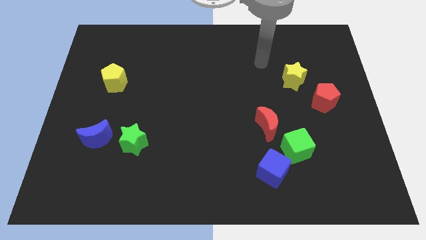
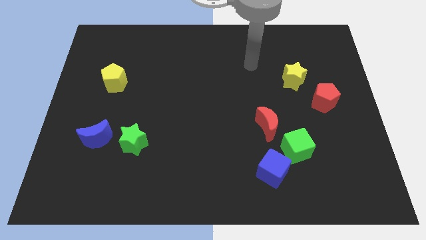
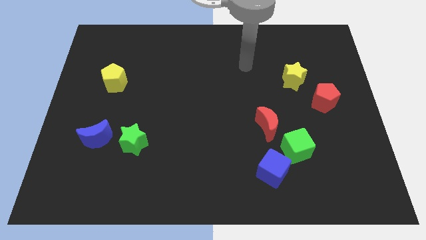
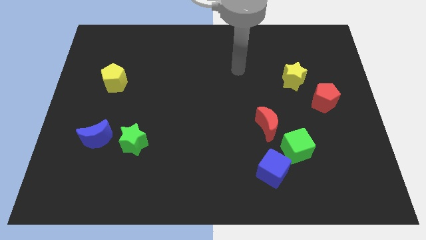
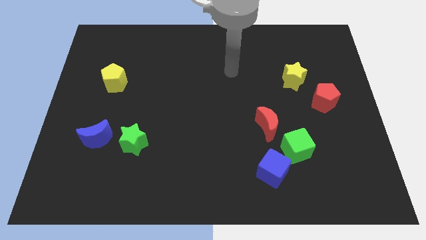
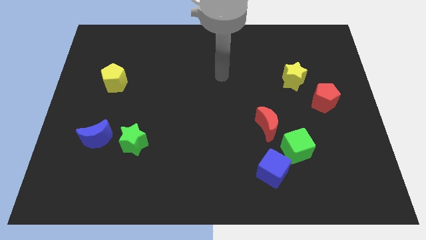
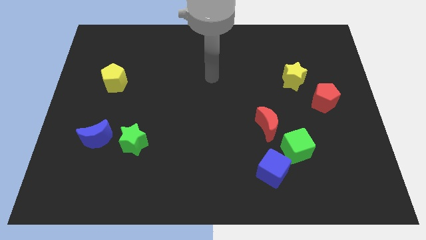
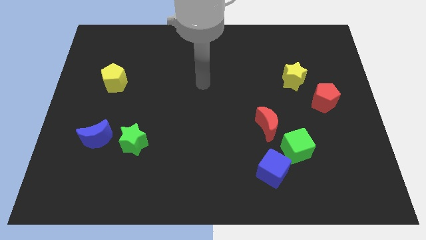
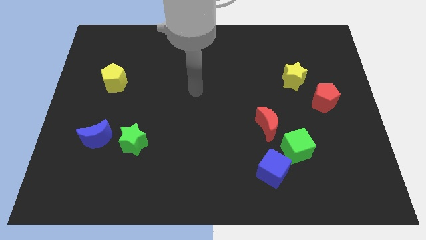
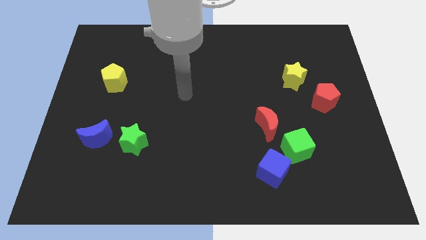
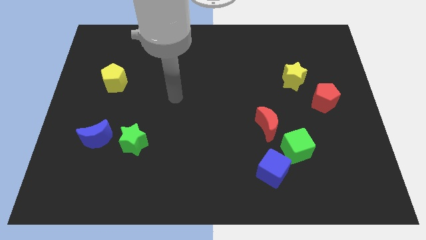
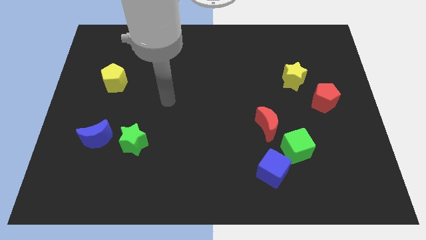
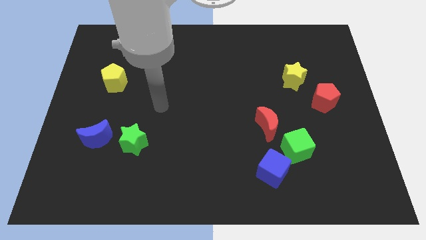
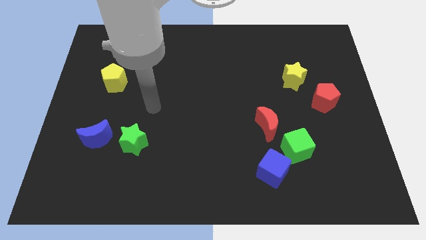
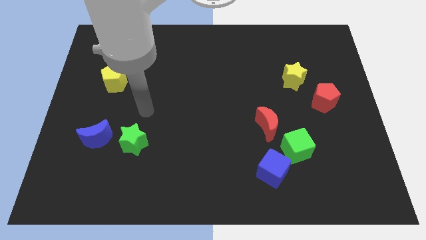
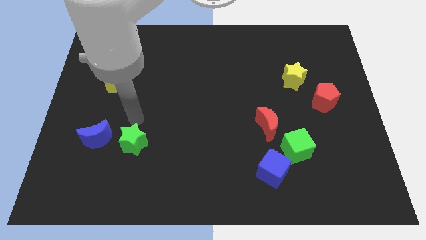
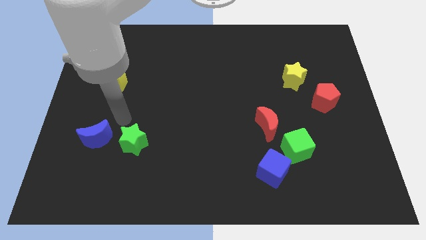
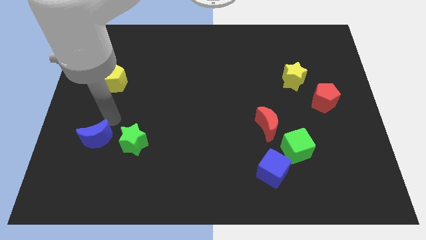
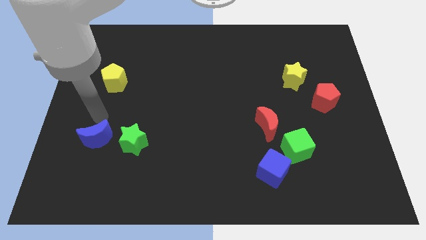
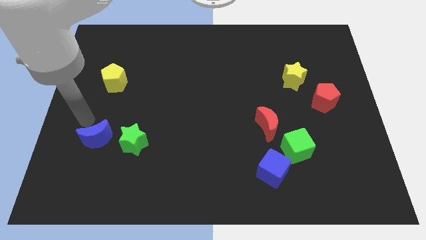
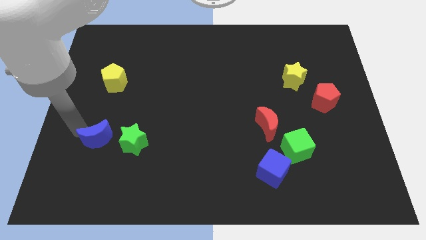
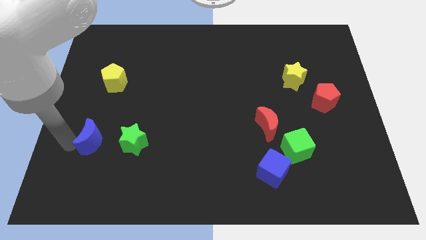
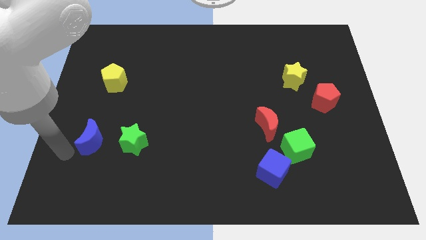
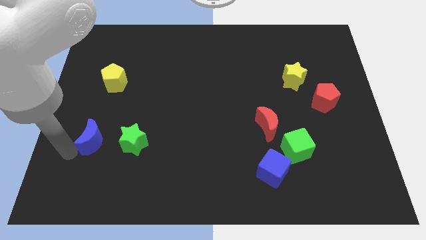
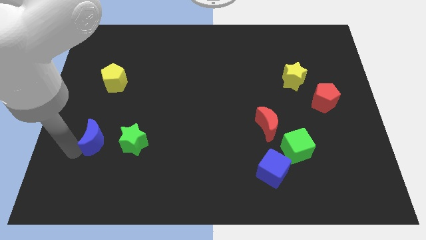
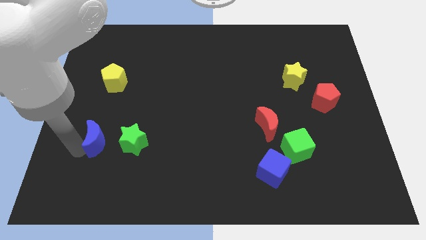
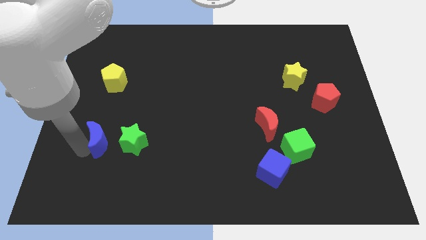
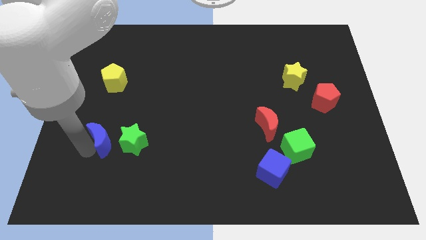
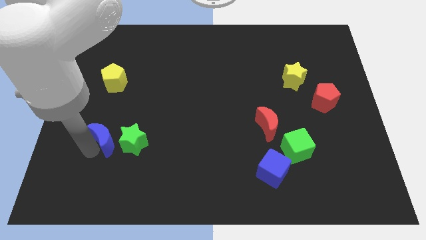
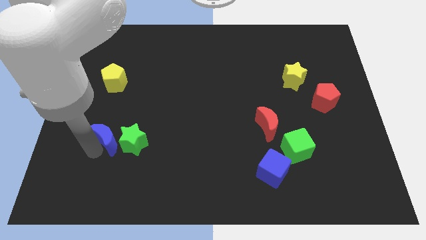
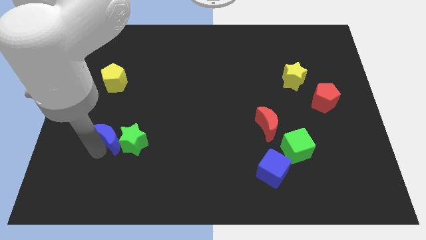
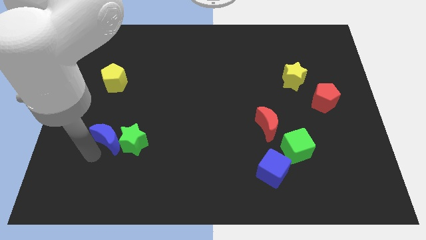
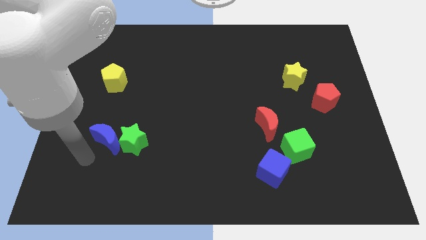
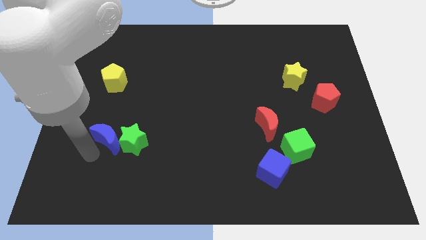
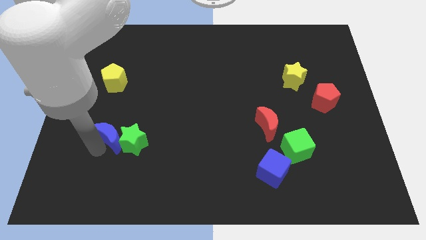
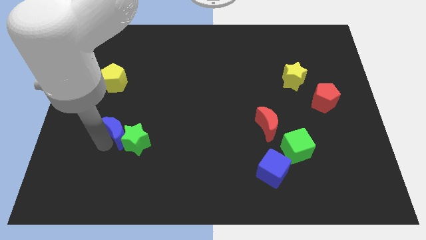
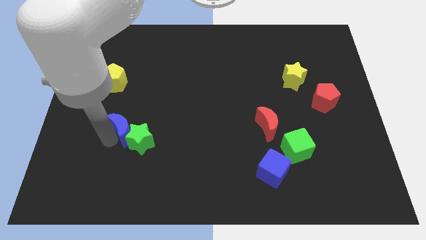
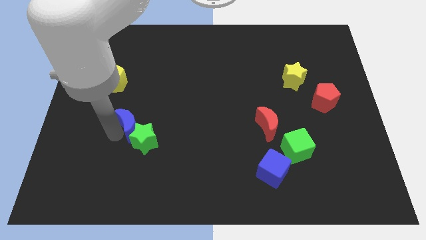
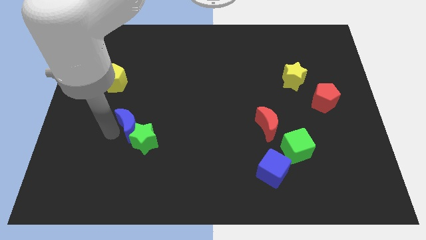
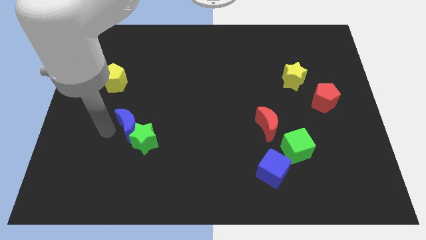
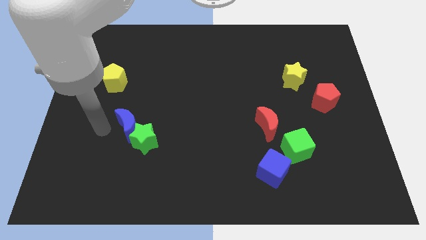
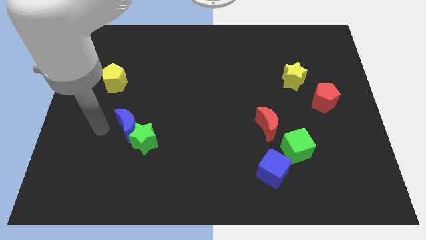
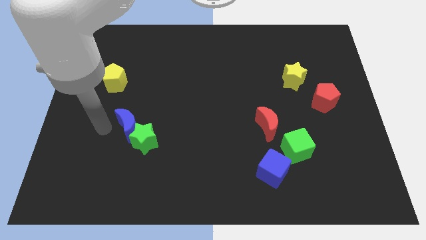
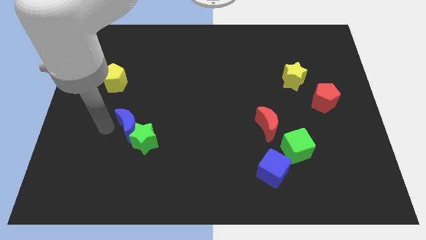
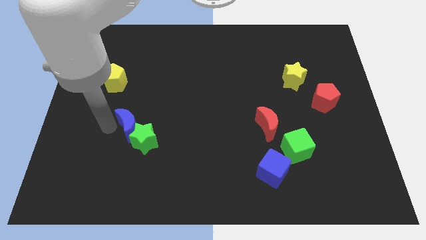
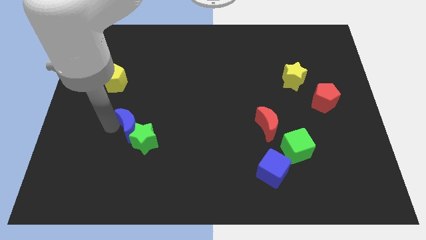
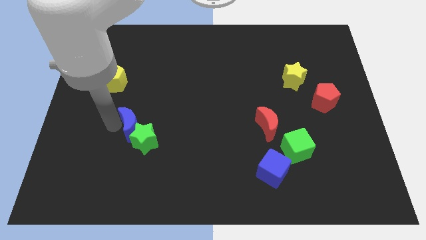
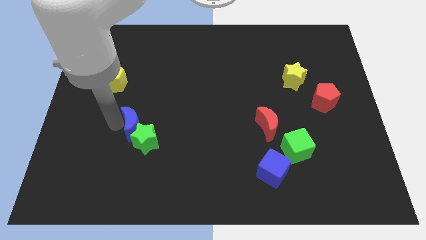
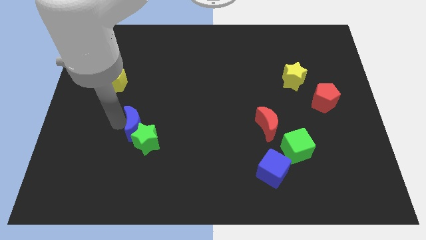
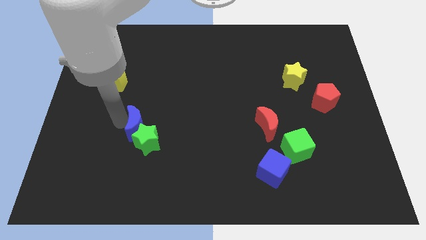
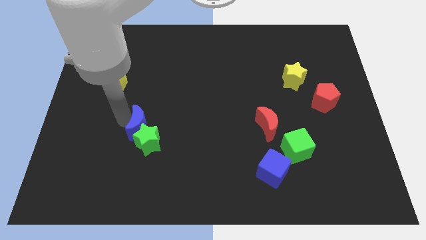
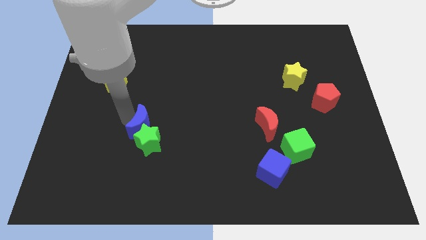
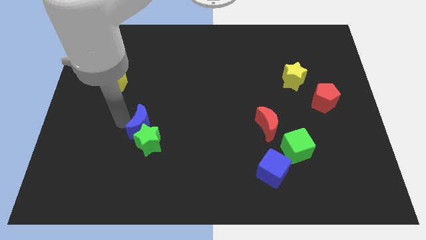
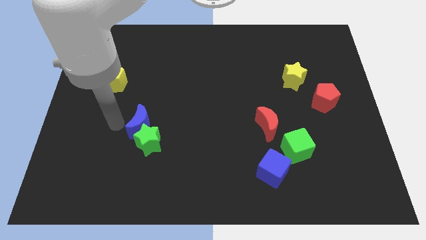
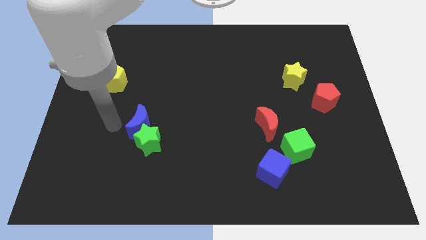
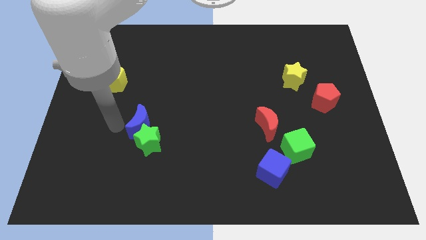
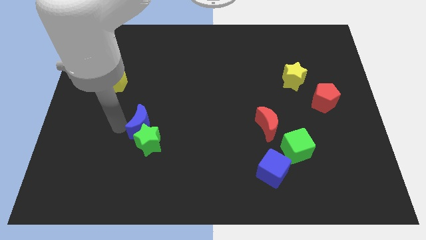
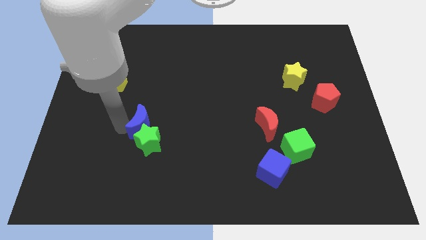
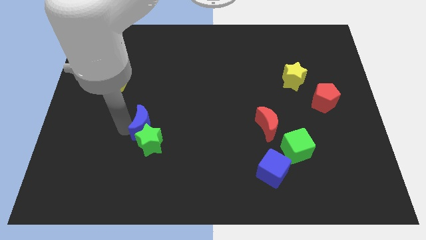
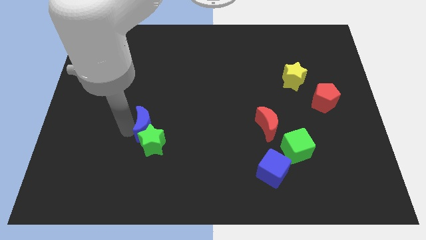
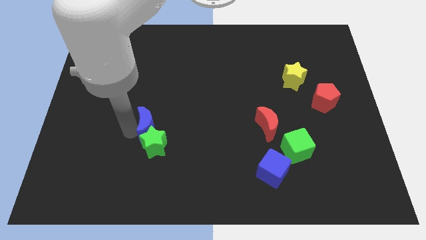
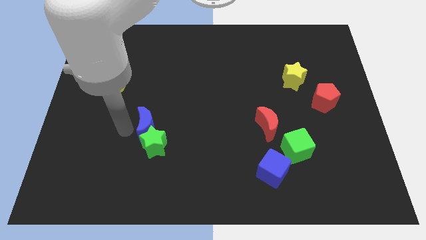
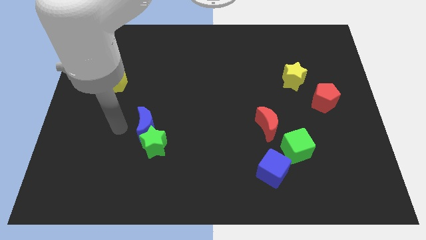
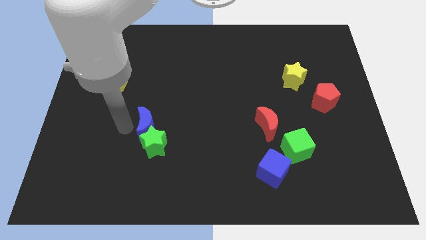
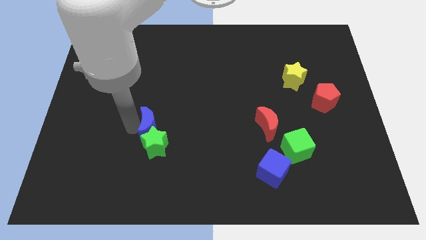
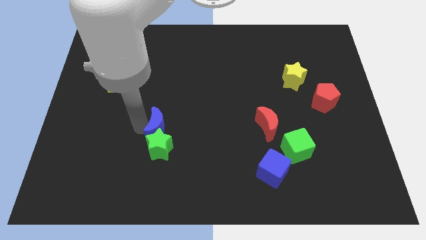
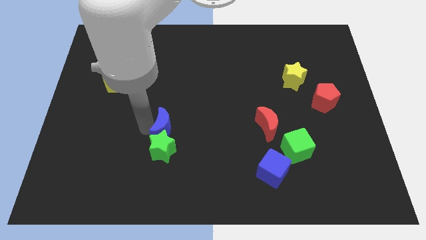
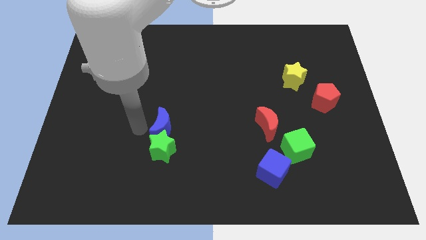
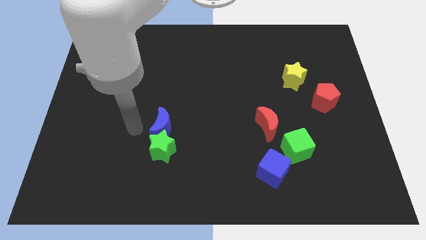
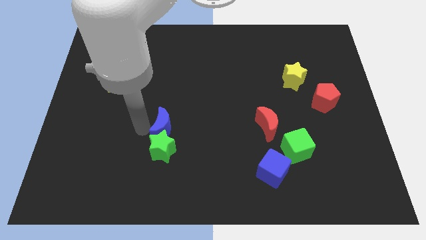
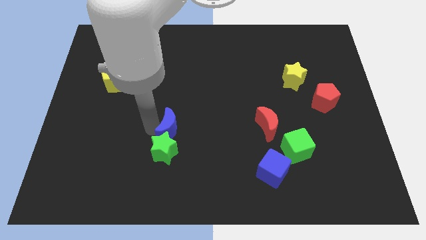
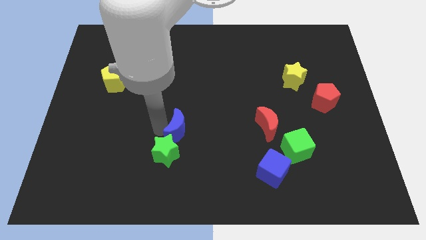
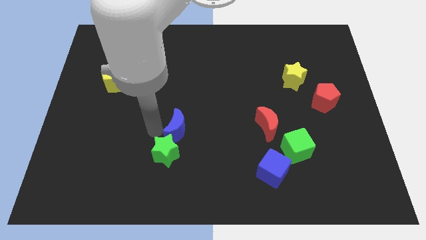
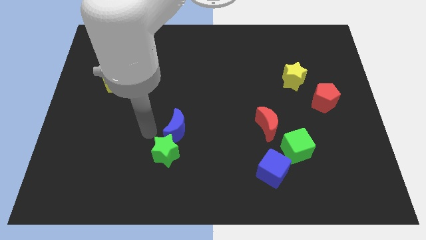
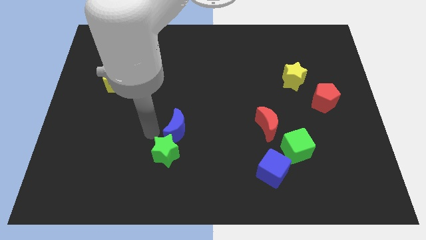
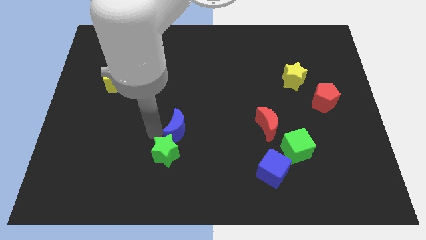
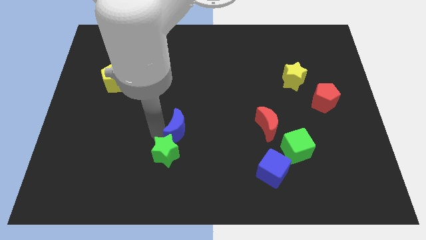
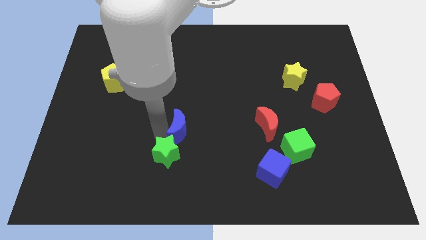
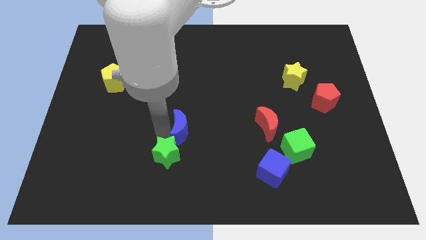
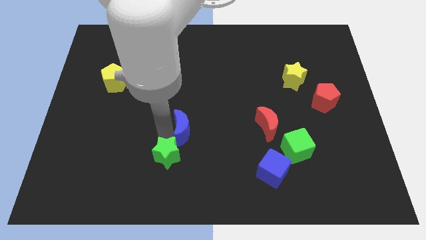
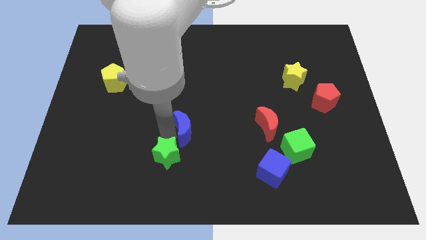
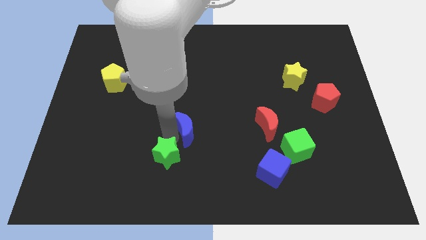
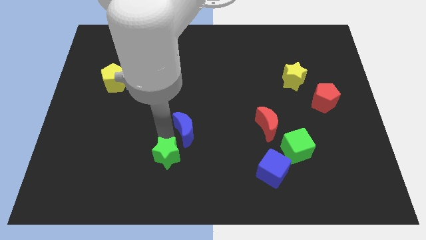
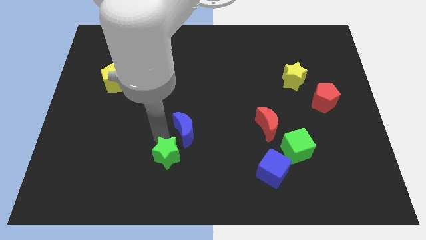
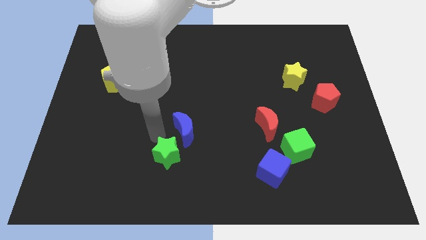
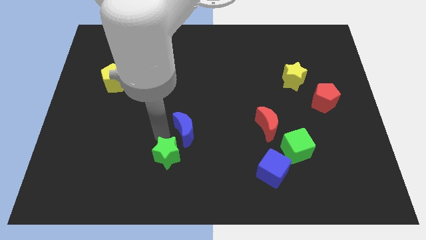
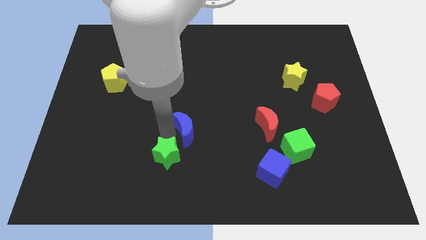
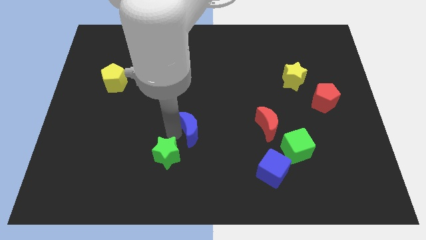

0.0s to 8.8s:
move the blue moon right
